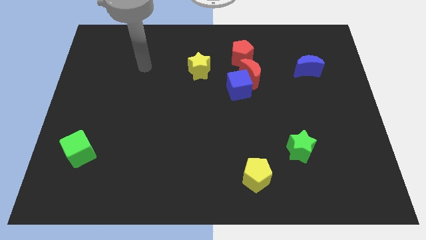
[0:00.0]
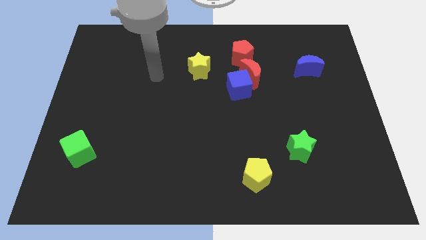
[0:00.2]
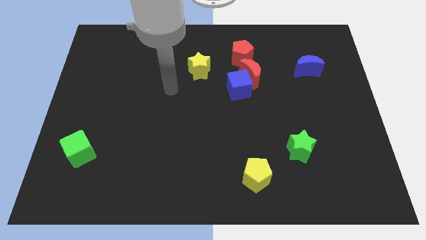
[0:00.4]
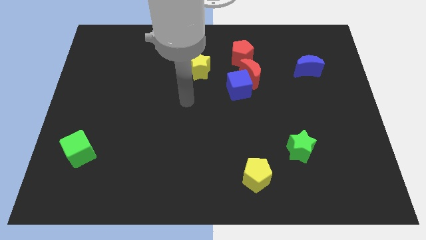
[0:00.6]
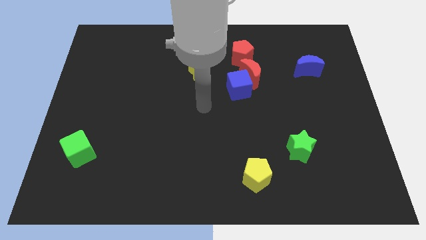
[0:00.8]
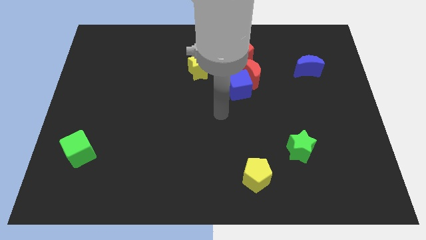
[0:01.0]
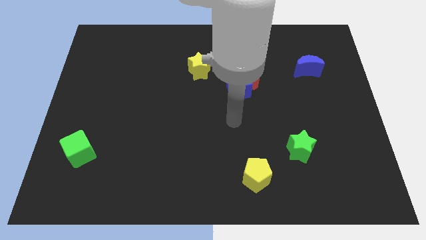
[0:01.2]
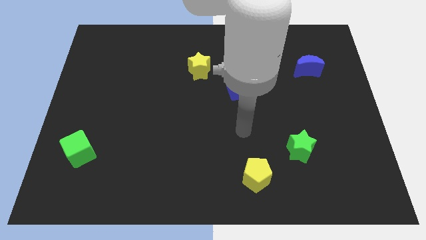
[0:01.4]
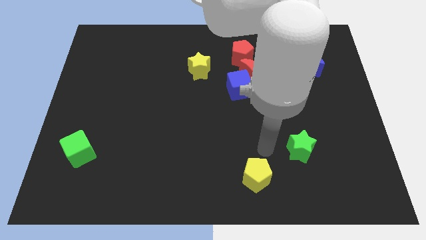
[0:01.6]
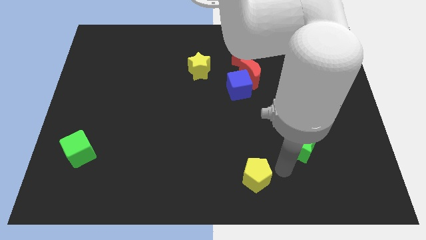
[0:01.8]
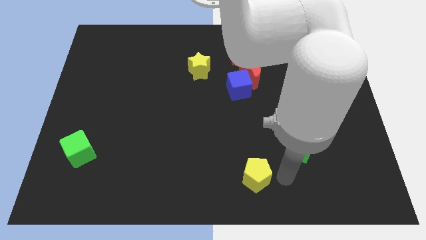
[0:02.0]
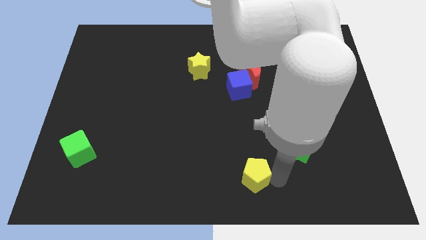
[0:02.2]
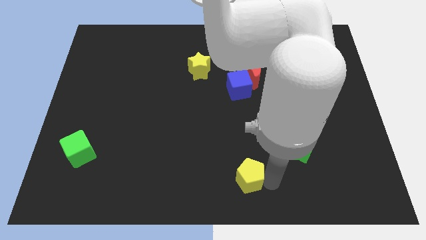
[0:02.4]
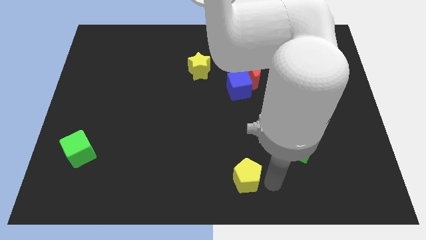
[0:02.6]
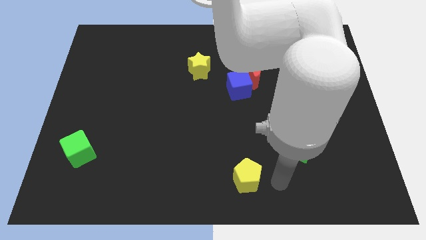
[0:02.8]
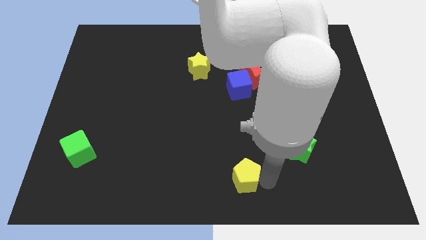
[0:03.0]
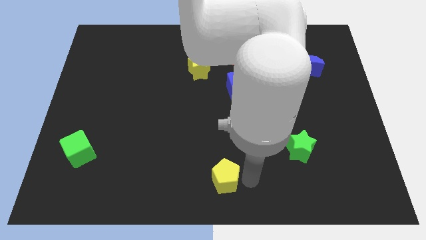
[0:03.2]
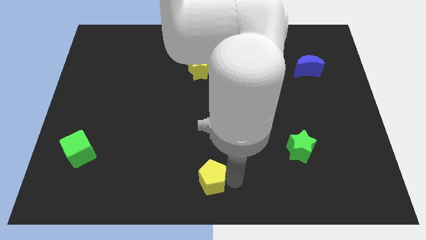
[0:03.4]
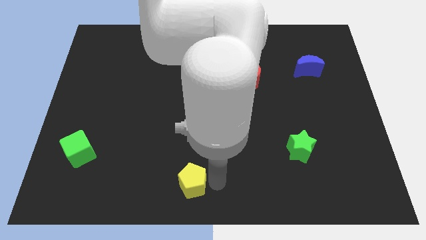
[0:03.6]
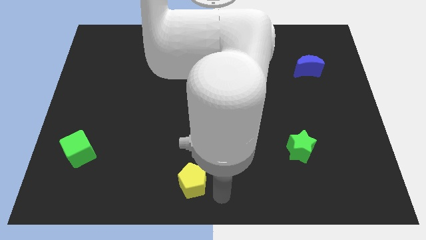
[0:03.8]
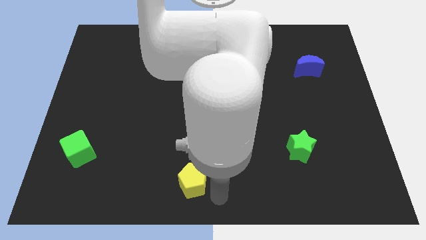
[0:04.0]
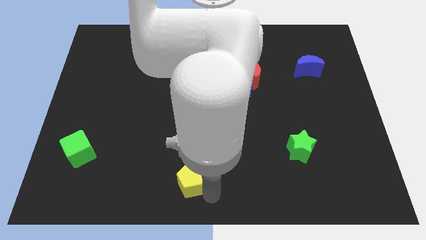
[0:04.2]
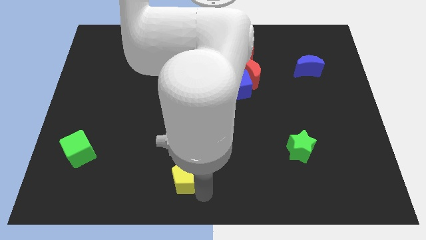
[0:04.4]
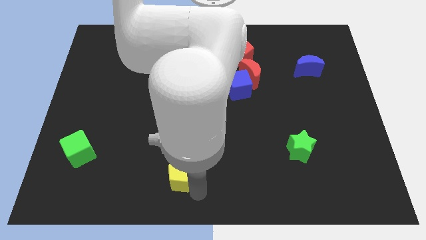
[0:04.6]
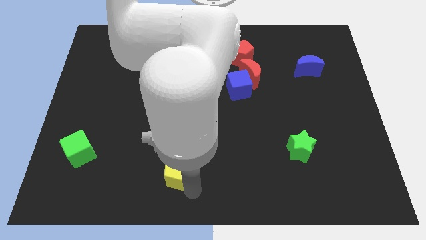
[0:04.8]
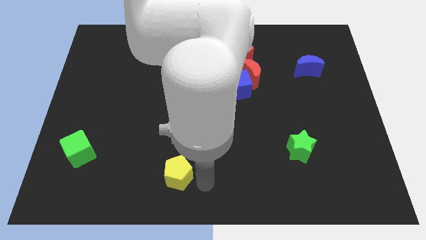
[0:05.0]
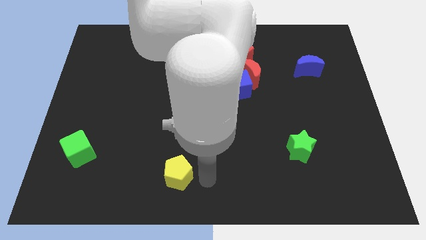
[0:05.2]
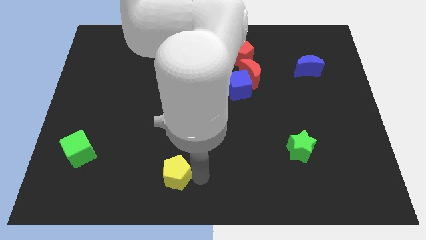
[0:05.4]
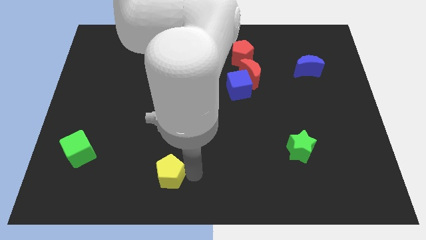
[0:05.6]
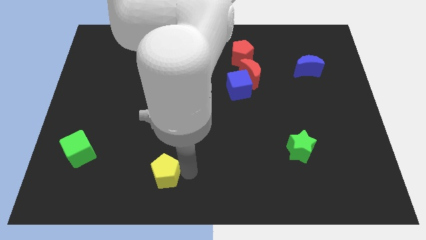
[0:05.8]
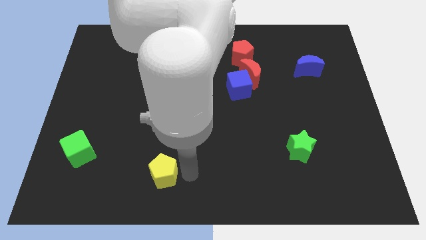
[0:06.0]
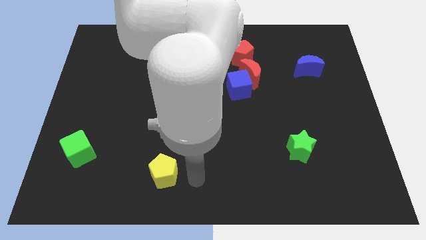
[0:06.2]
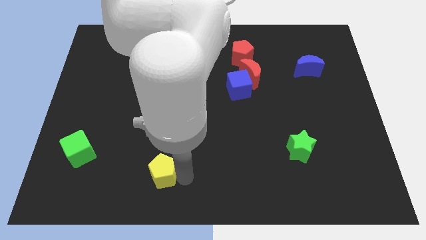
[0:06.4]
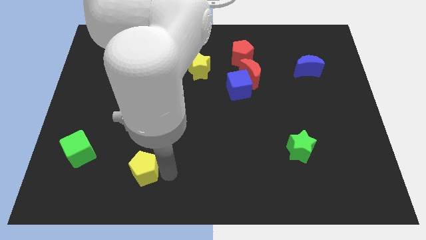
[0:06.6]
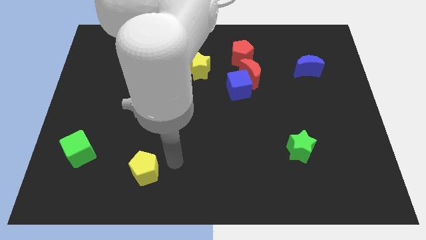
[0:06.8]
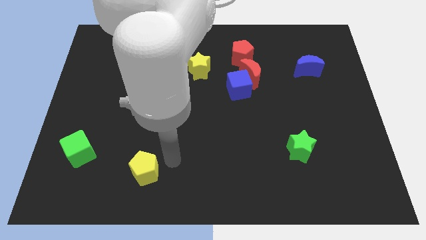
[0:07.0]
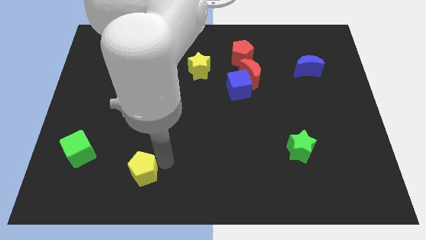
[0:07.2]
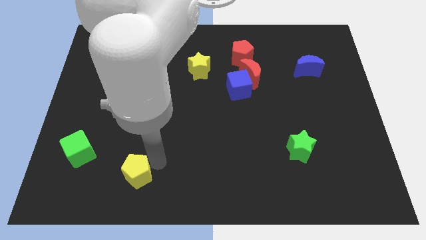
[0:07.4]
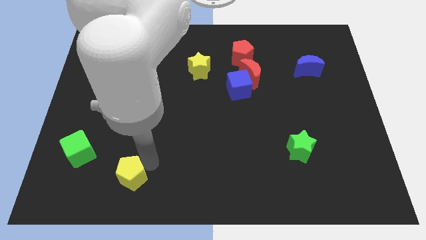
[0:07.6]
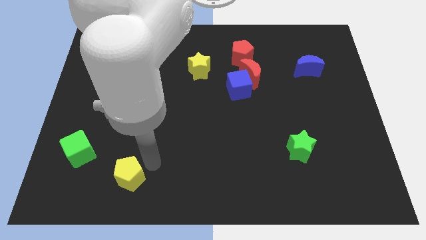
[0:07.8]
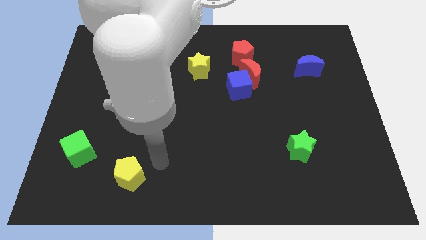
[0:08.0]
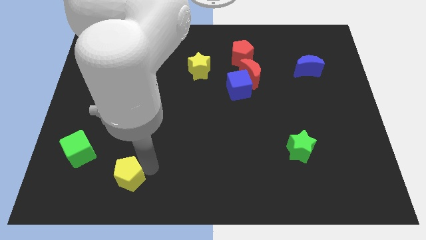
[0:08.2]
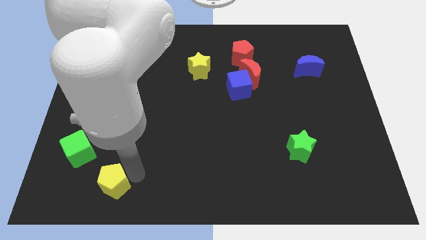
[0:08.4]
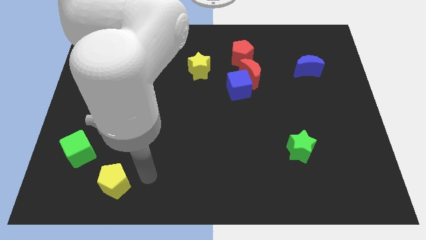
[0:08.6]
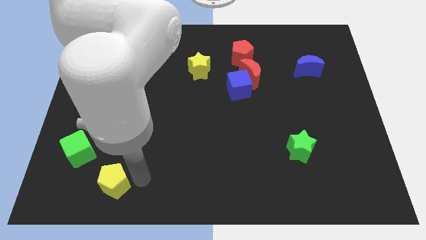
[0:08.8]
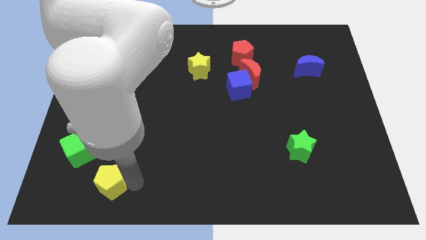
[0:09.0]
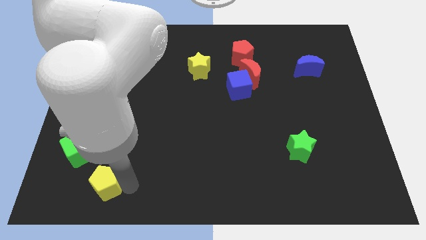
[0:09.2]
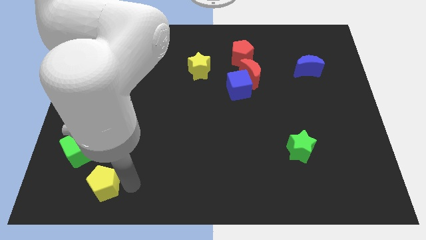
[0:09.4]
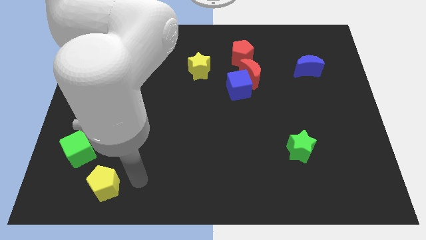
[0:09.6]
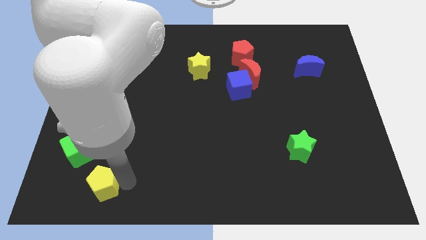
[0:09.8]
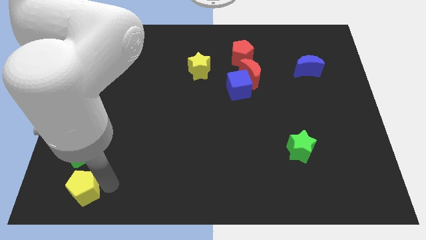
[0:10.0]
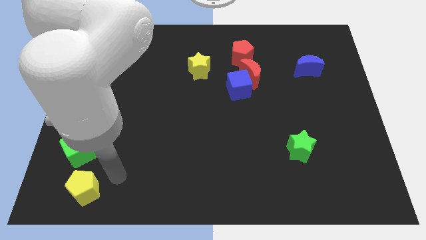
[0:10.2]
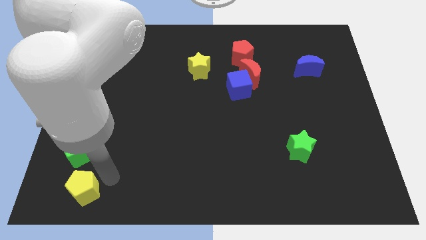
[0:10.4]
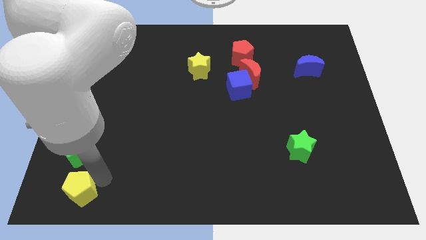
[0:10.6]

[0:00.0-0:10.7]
put the yellow pentagon to the bottom left of the board
